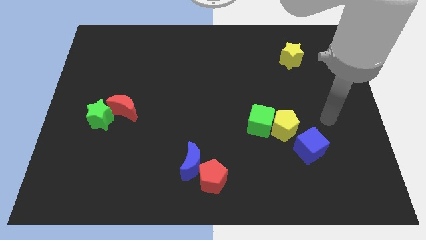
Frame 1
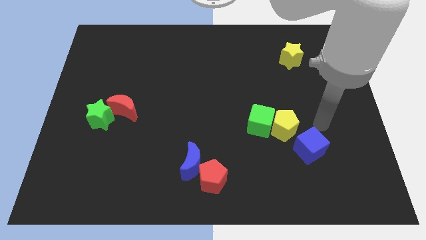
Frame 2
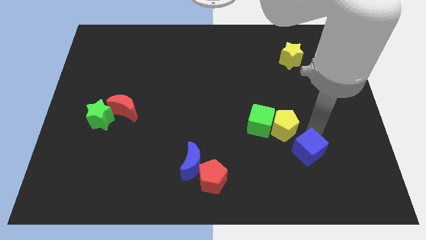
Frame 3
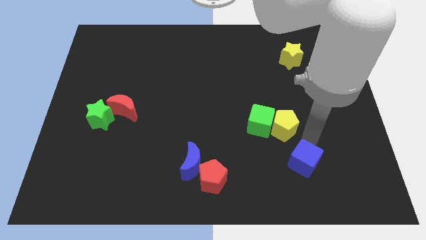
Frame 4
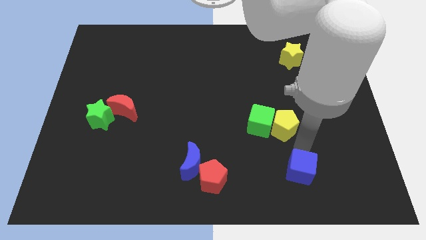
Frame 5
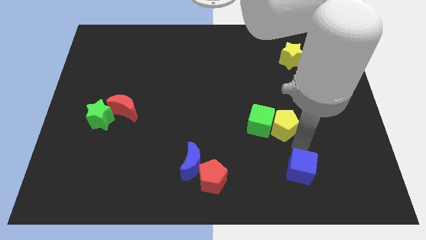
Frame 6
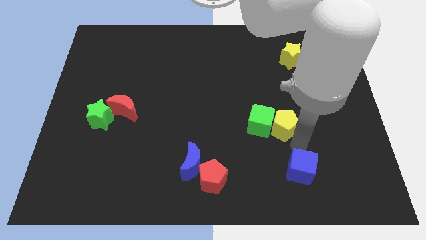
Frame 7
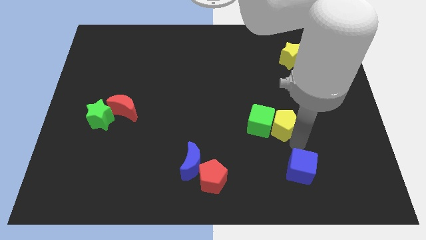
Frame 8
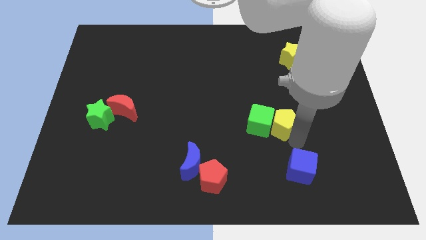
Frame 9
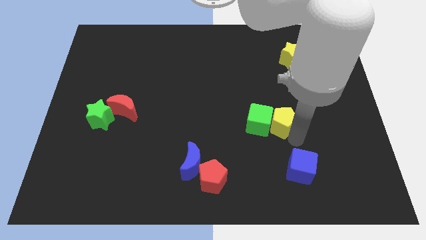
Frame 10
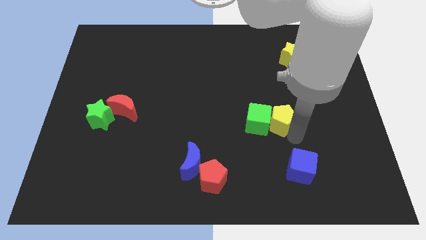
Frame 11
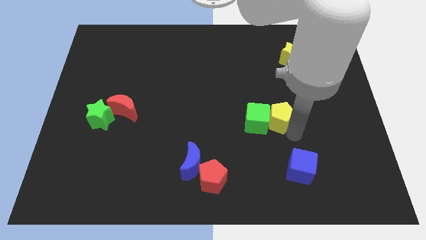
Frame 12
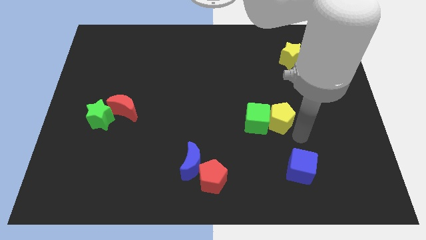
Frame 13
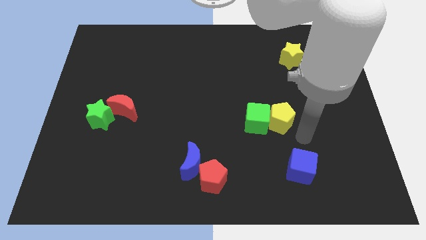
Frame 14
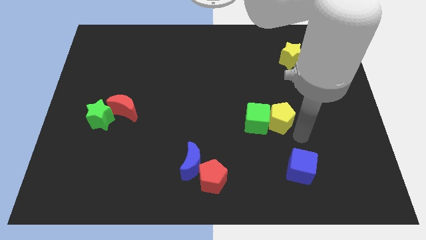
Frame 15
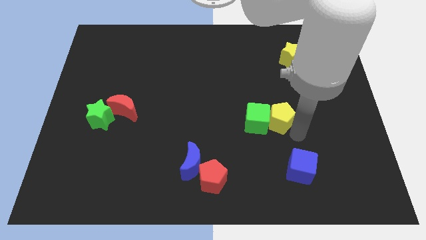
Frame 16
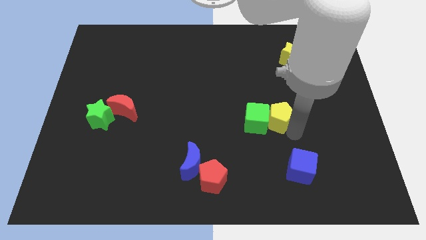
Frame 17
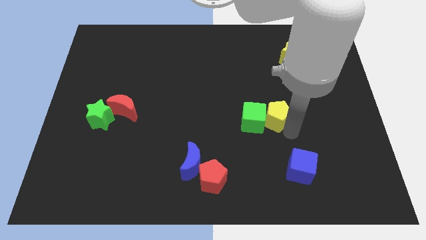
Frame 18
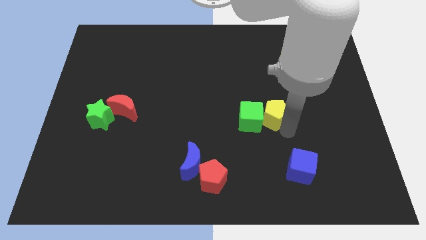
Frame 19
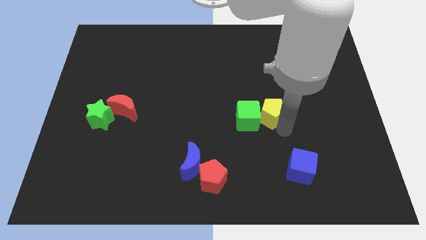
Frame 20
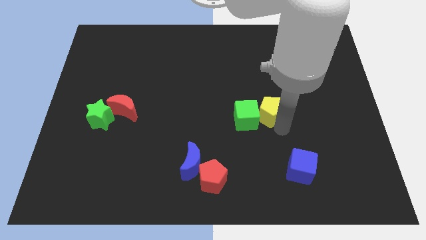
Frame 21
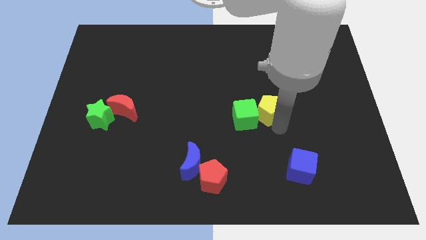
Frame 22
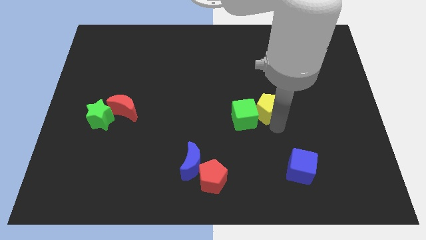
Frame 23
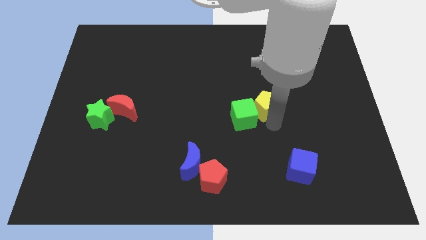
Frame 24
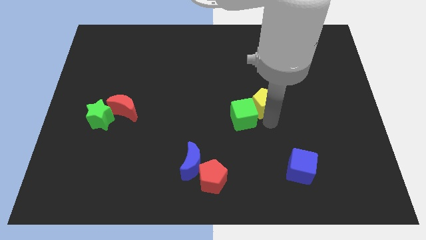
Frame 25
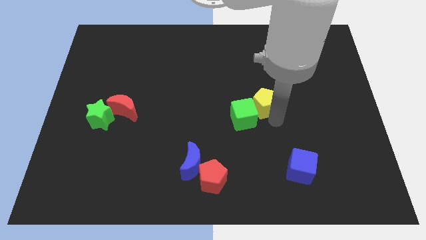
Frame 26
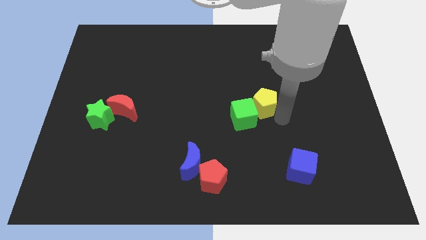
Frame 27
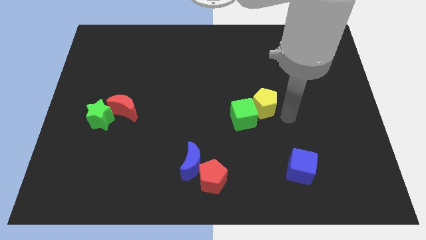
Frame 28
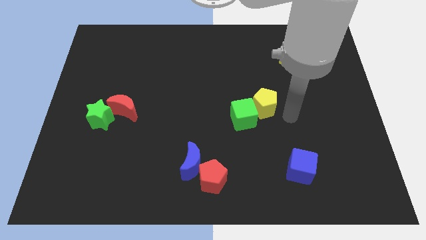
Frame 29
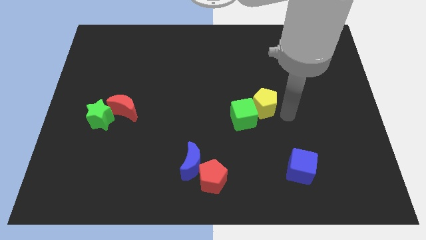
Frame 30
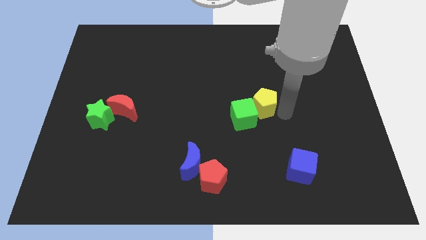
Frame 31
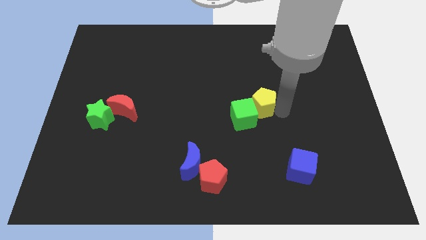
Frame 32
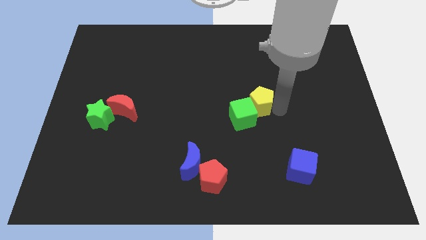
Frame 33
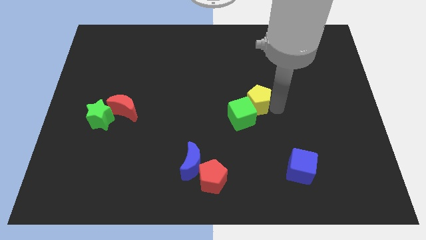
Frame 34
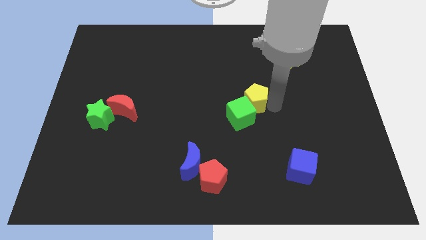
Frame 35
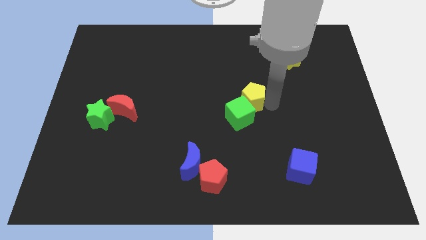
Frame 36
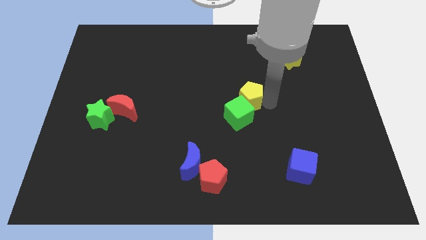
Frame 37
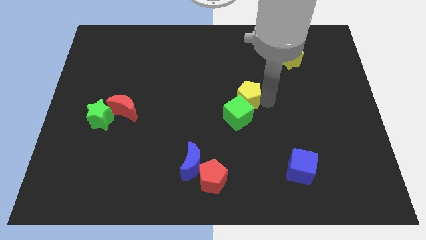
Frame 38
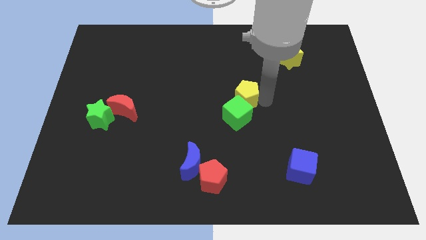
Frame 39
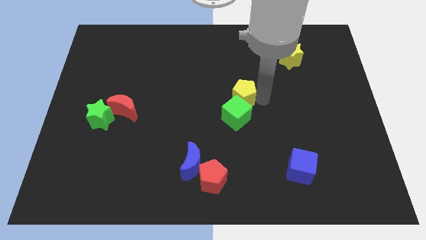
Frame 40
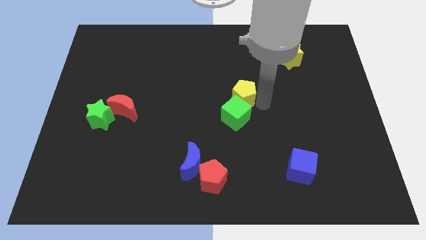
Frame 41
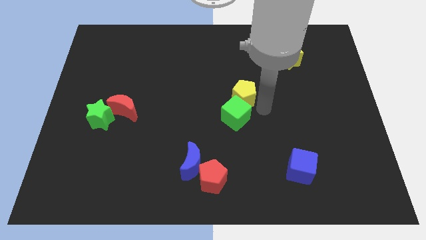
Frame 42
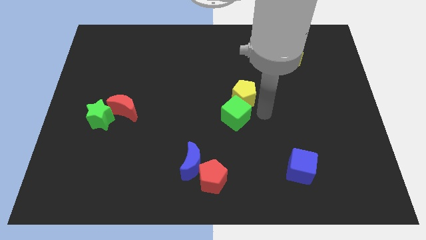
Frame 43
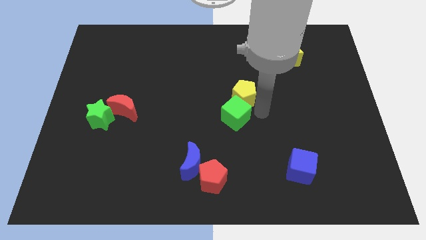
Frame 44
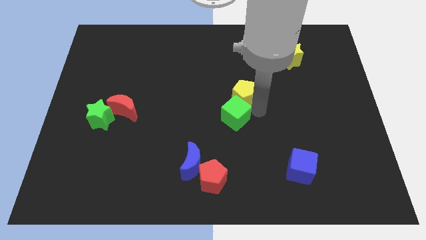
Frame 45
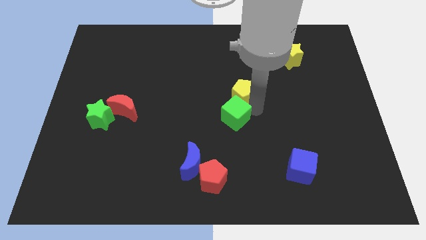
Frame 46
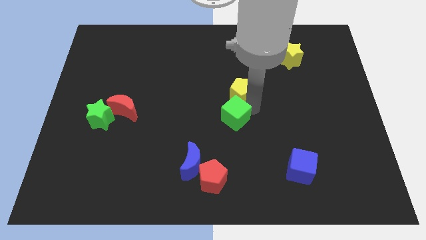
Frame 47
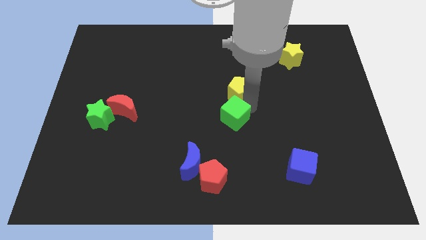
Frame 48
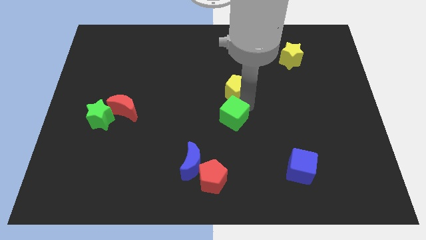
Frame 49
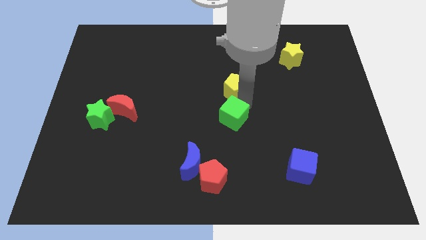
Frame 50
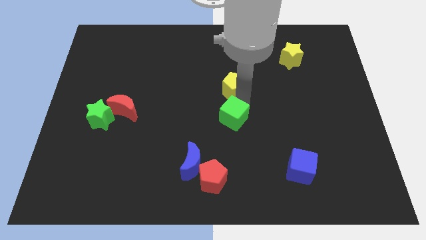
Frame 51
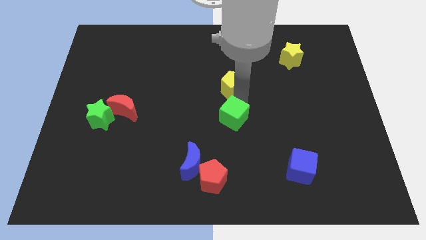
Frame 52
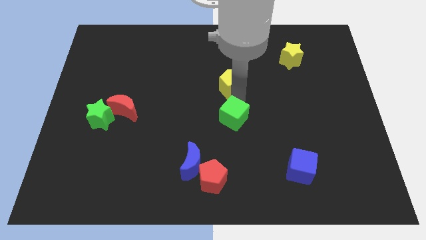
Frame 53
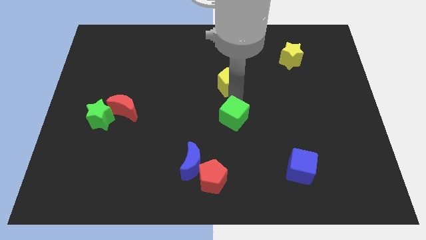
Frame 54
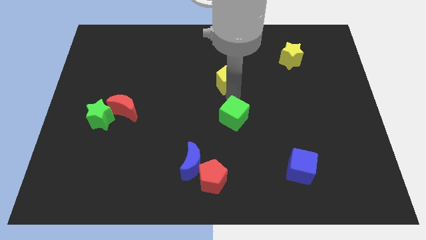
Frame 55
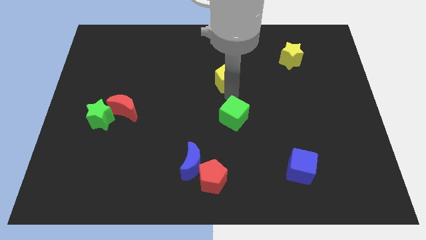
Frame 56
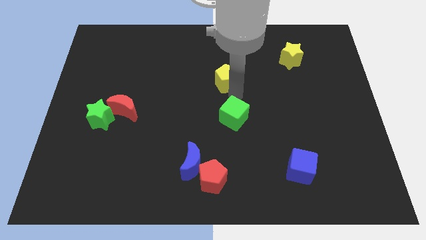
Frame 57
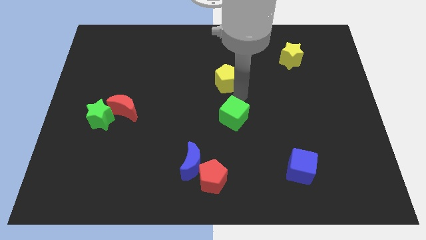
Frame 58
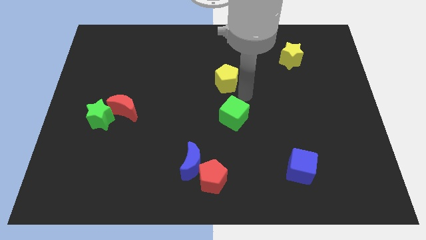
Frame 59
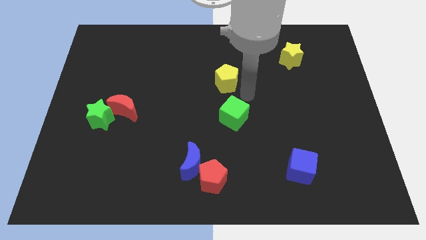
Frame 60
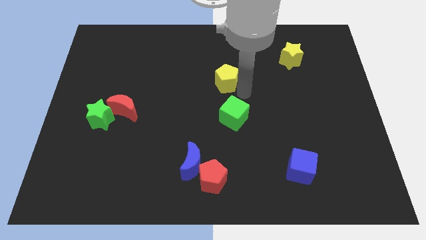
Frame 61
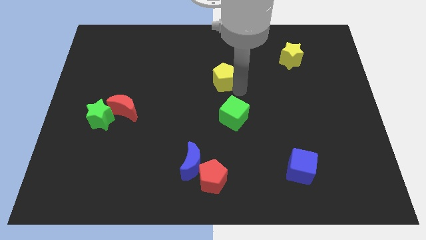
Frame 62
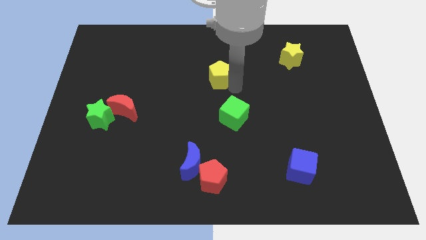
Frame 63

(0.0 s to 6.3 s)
slide the yellow pentagon upwards and then to the left

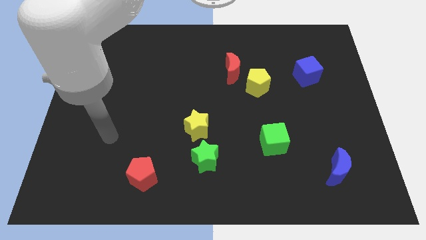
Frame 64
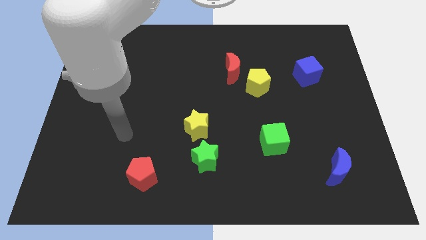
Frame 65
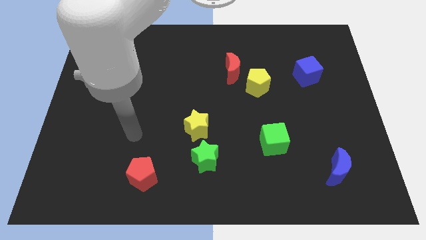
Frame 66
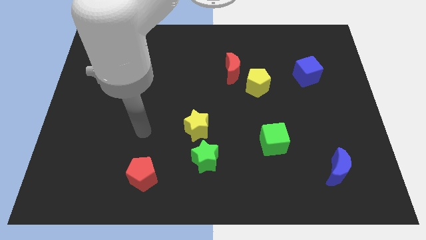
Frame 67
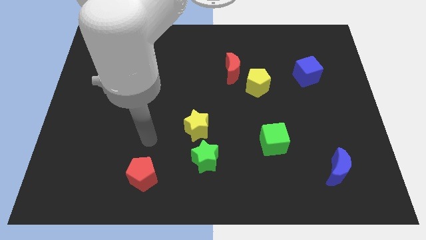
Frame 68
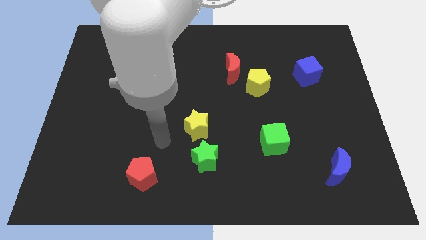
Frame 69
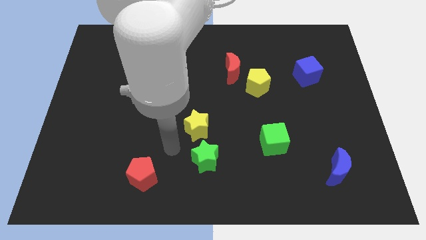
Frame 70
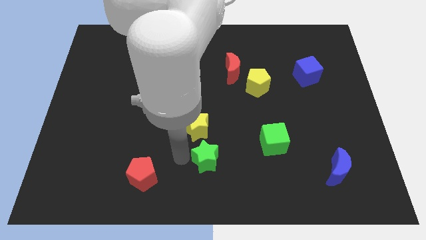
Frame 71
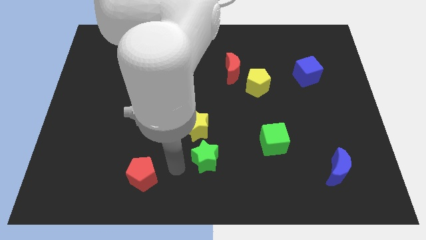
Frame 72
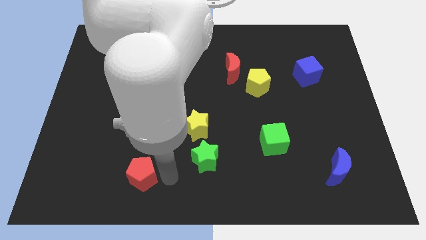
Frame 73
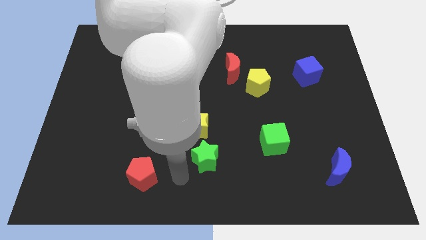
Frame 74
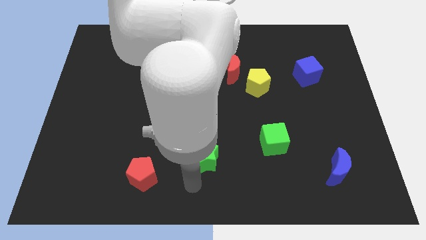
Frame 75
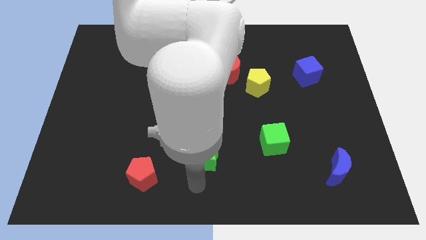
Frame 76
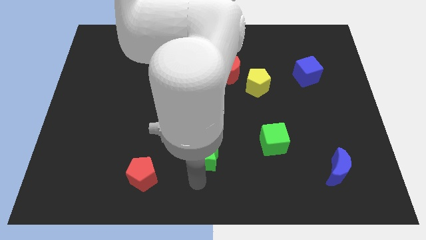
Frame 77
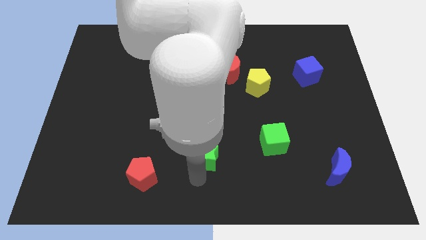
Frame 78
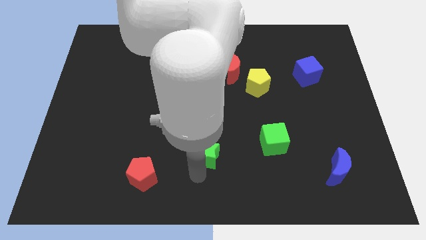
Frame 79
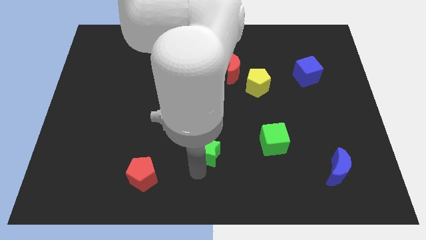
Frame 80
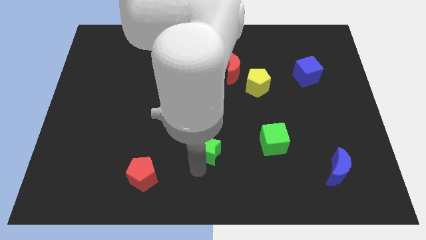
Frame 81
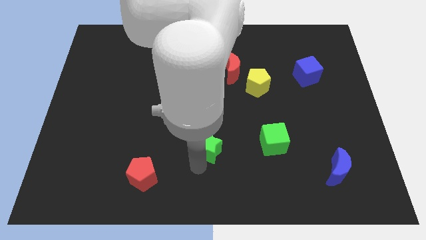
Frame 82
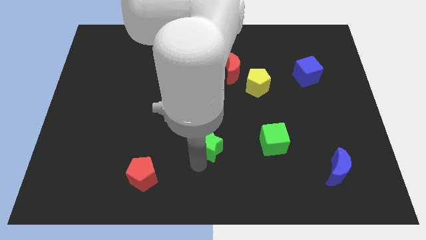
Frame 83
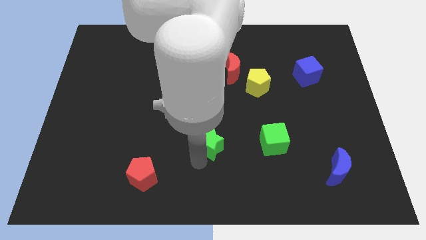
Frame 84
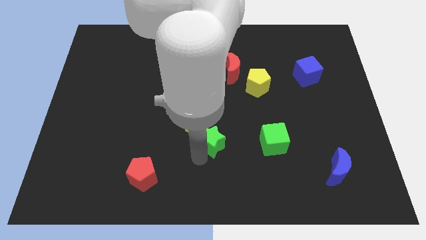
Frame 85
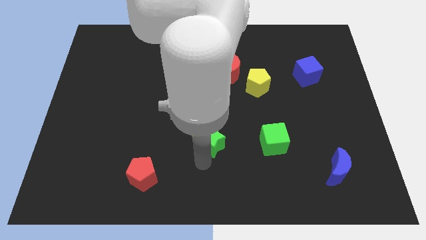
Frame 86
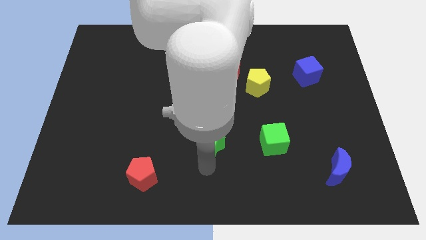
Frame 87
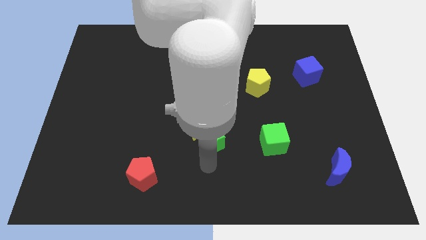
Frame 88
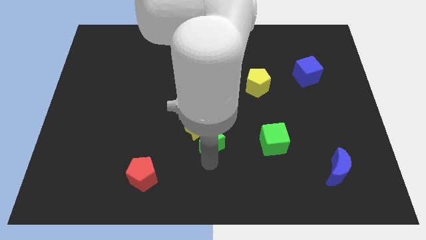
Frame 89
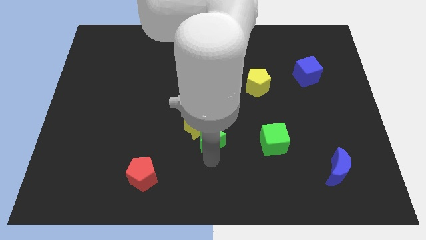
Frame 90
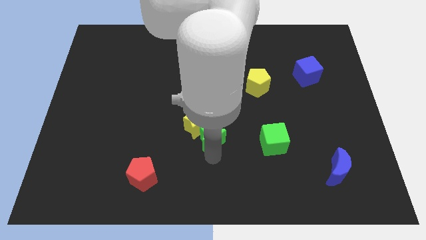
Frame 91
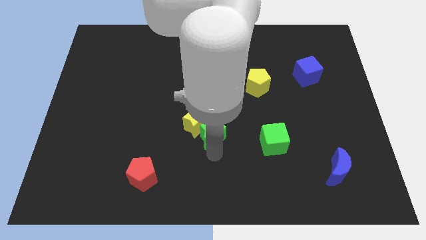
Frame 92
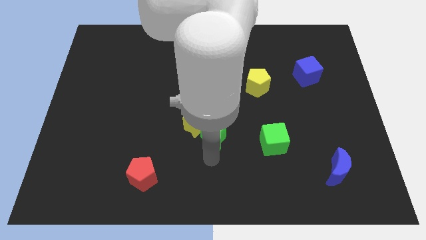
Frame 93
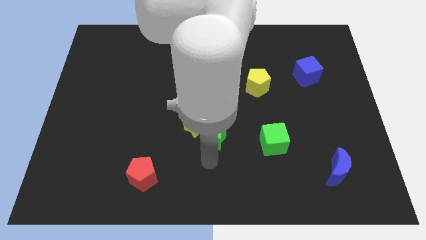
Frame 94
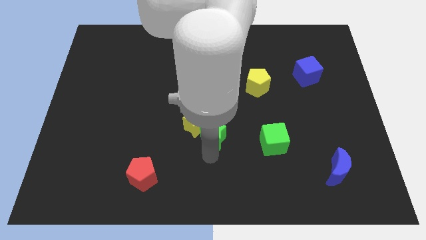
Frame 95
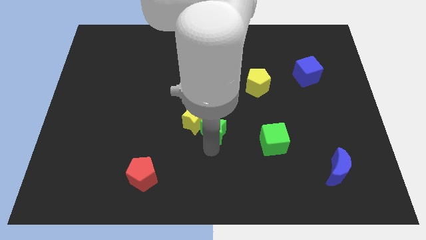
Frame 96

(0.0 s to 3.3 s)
move the green star upwards a bit
